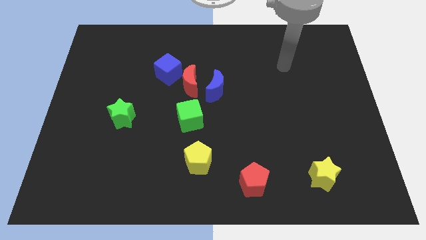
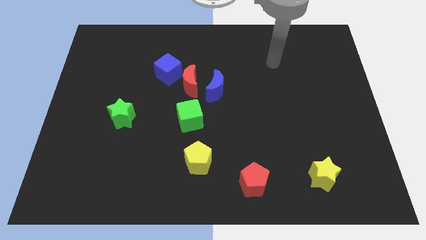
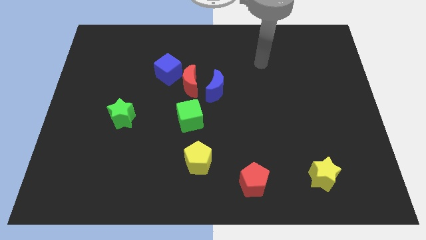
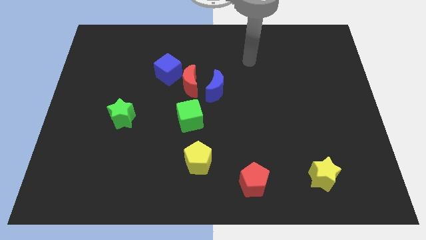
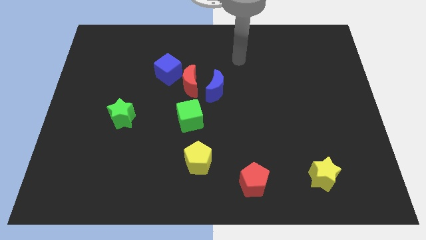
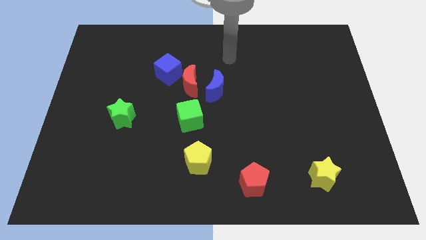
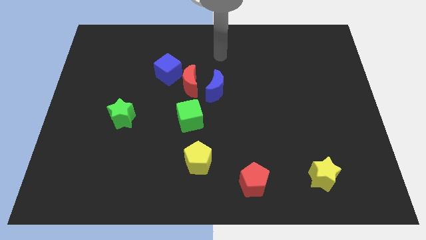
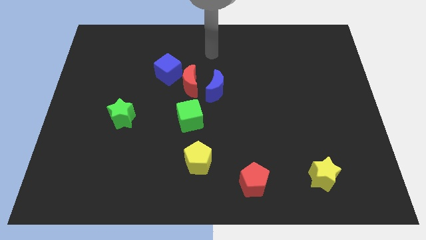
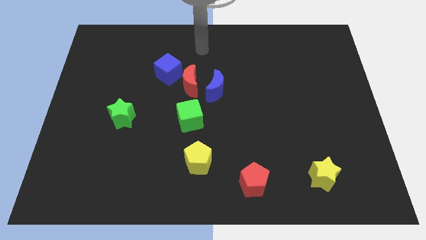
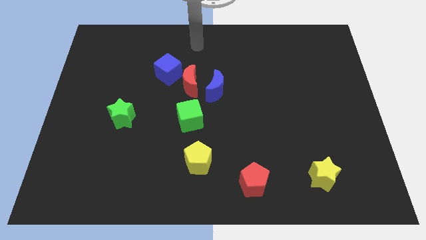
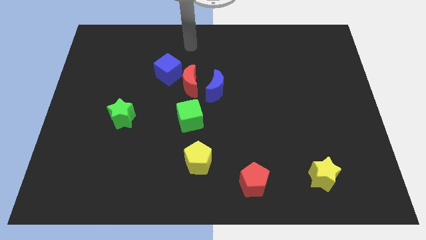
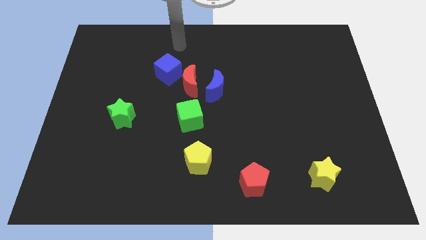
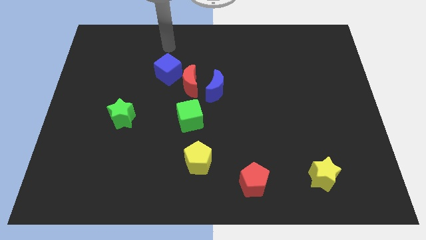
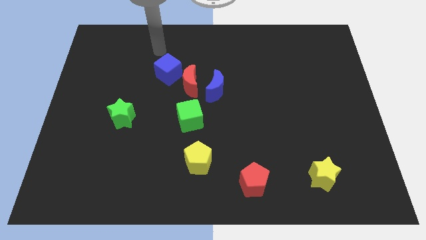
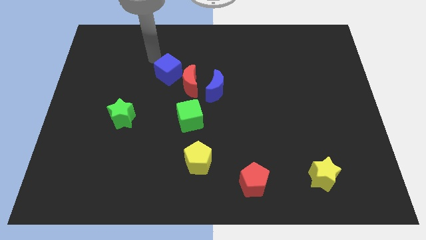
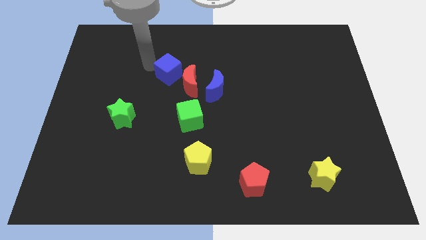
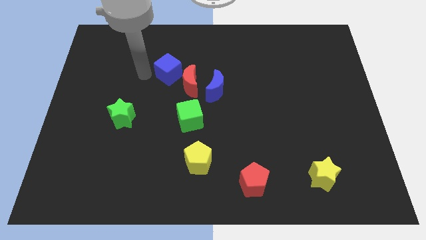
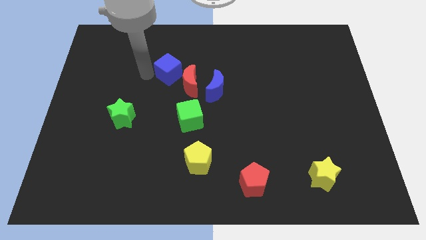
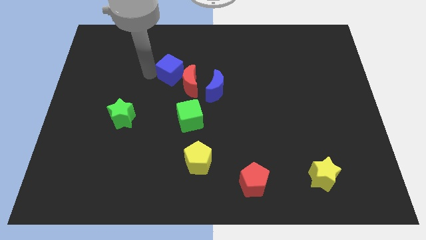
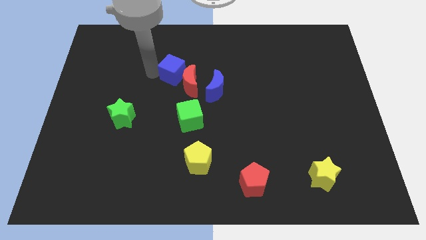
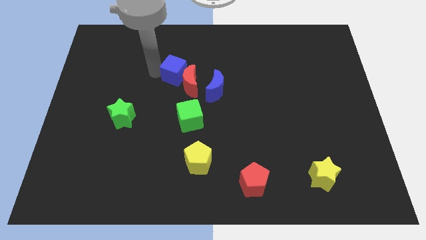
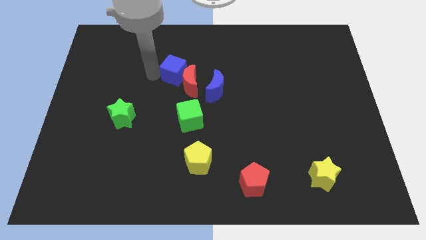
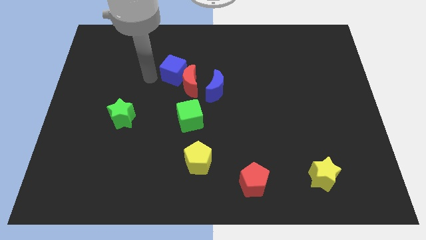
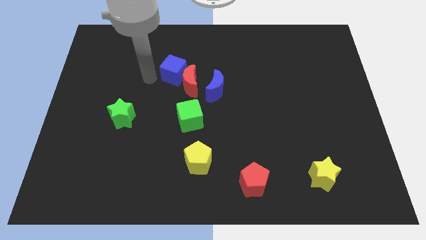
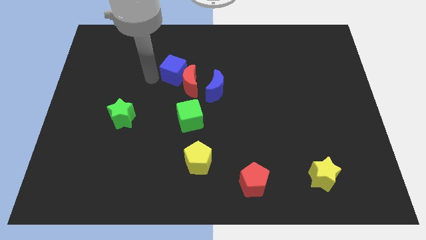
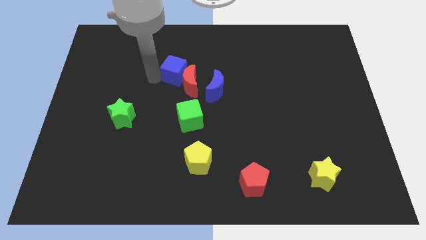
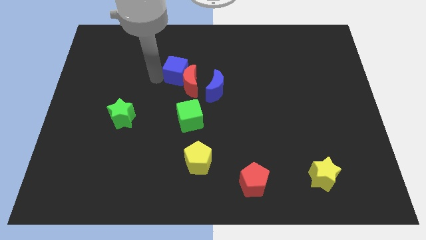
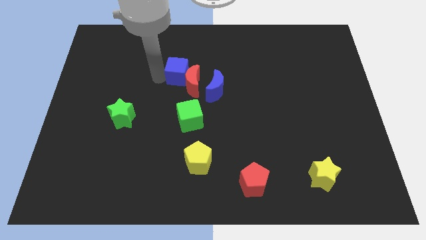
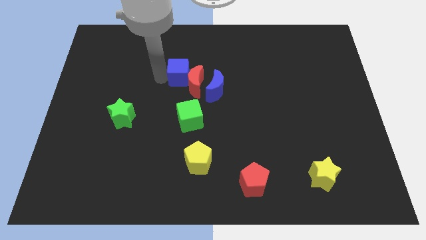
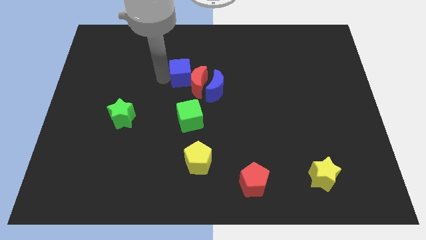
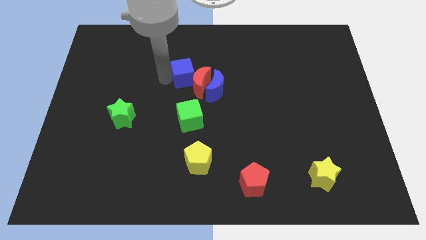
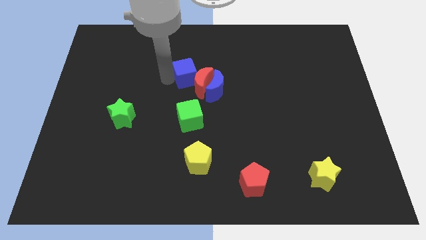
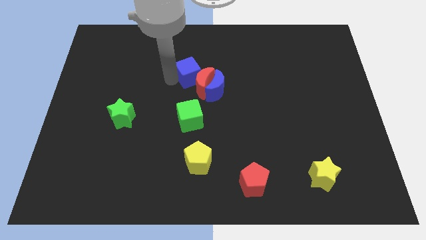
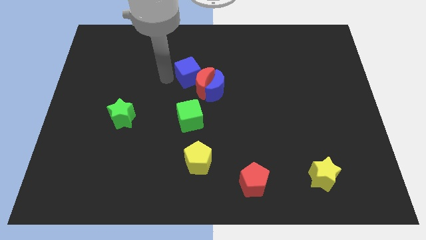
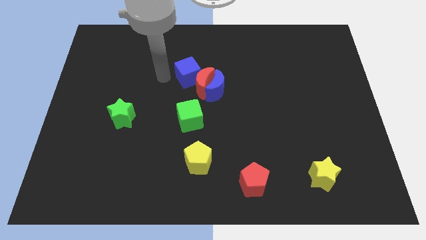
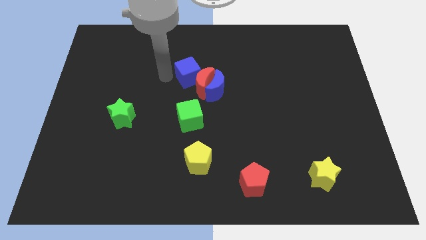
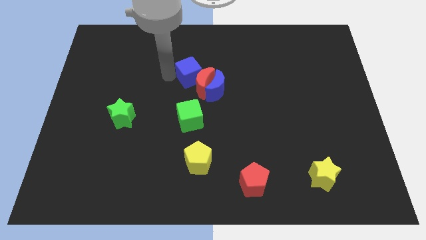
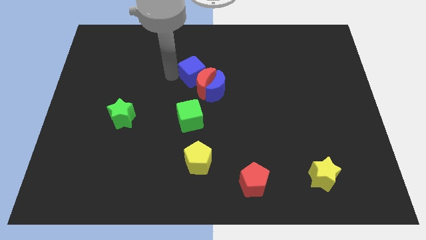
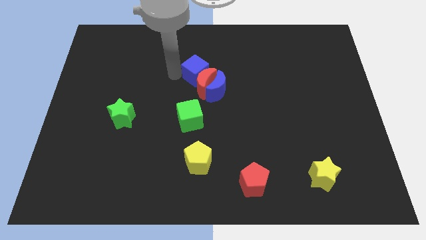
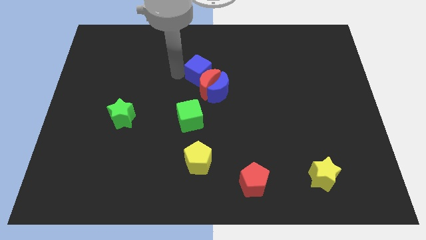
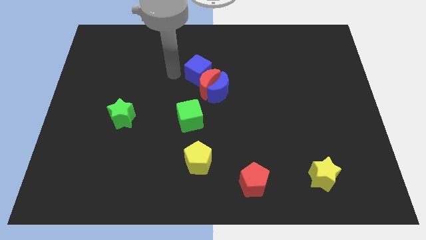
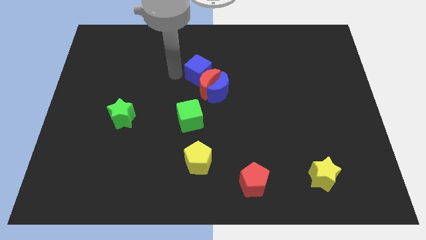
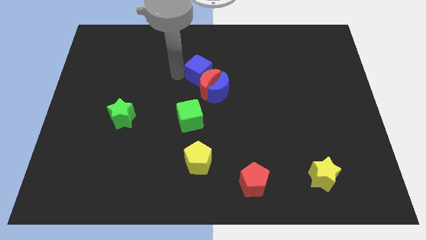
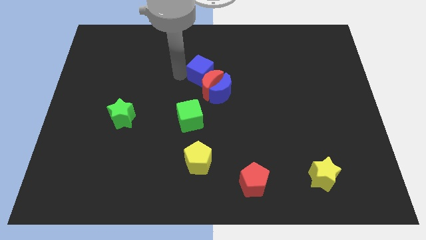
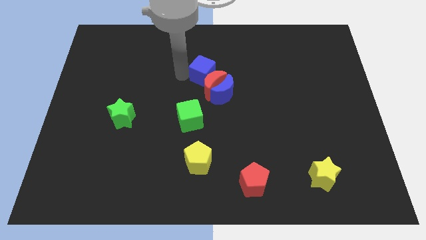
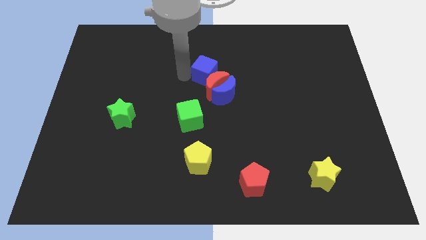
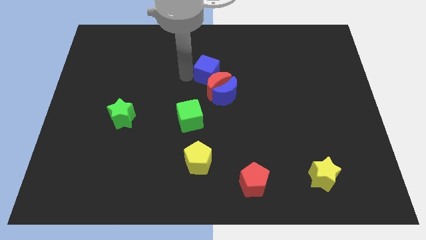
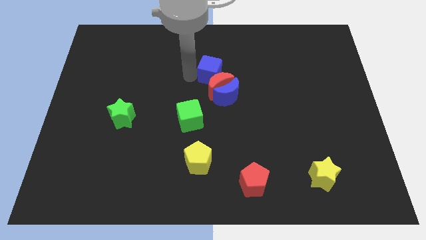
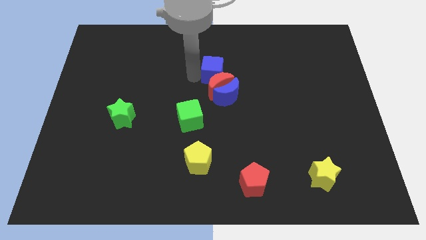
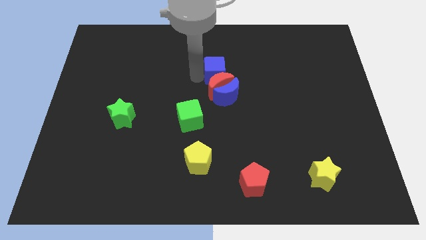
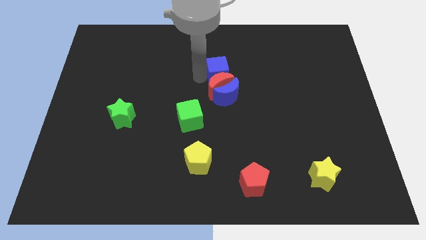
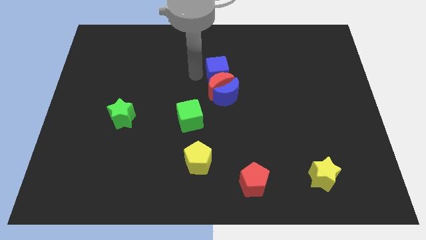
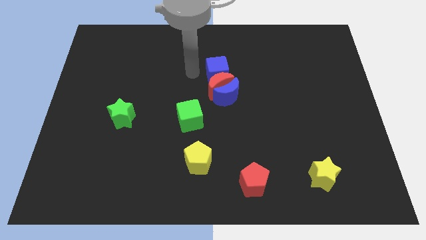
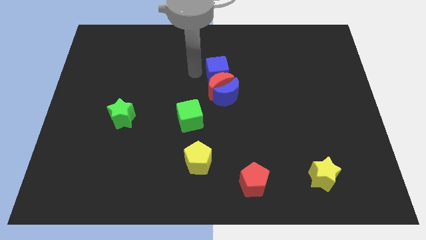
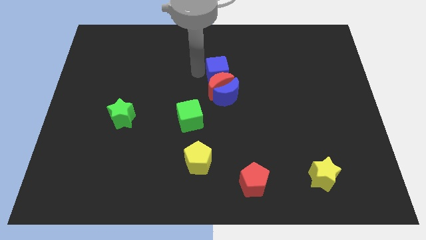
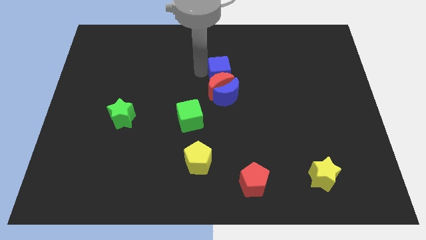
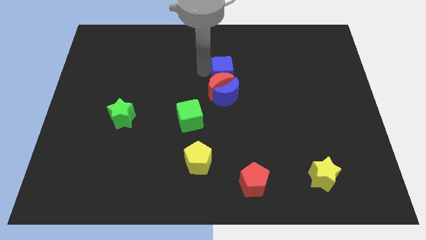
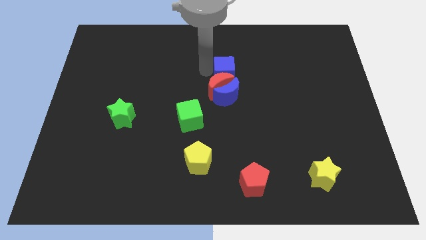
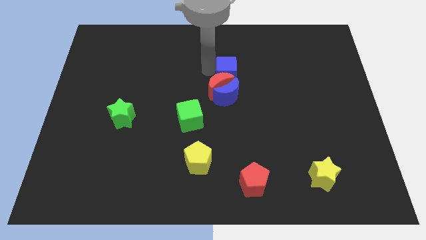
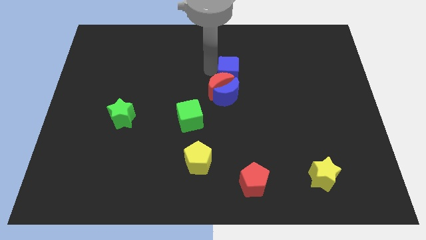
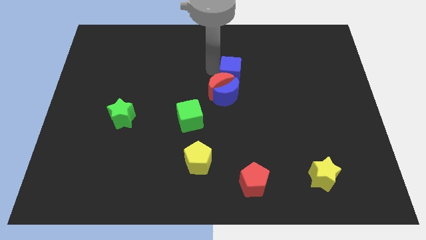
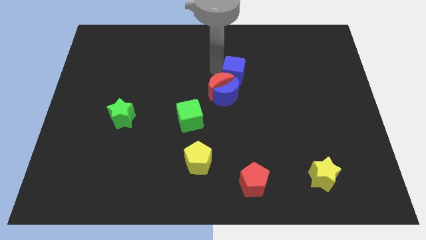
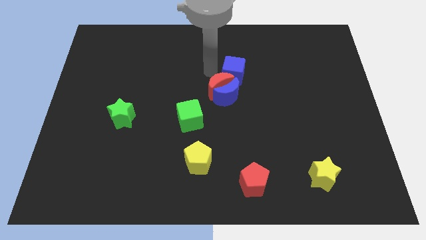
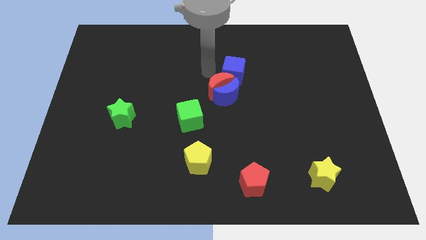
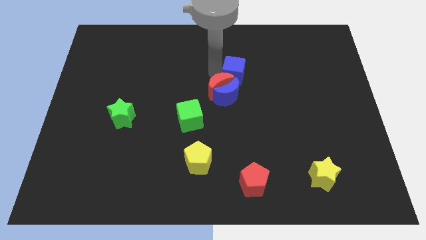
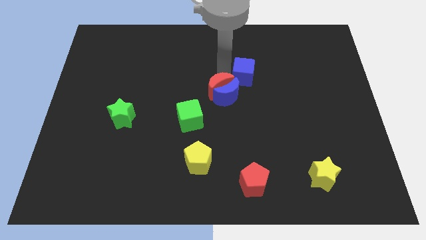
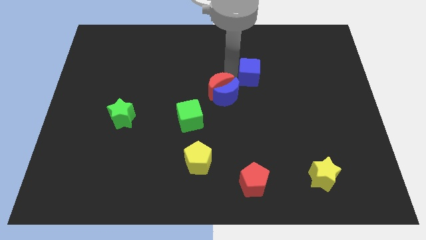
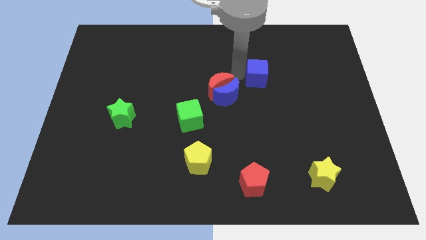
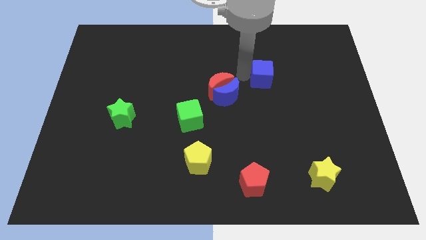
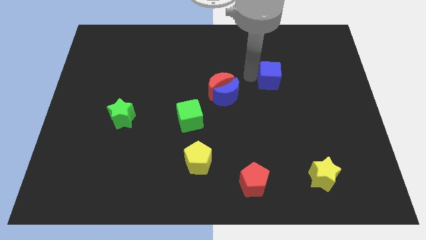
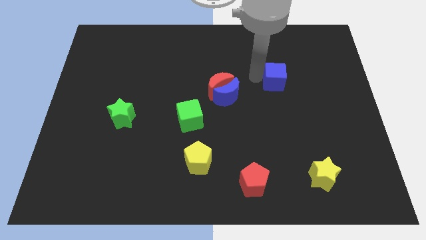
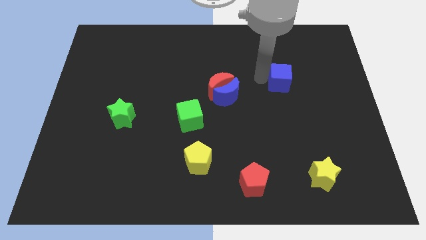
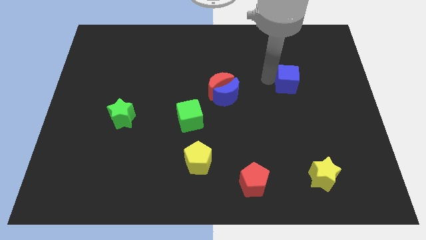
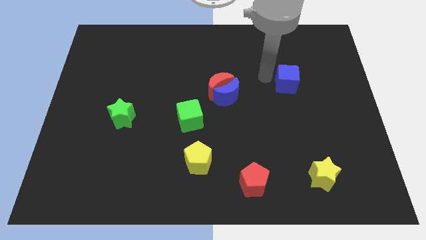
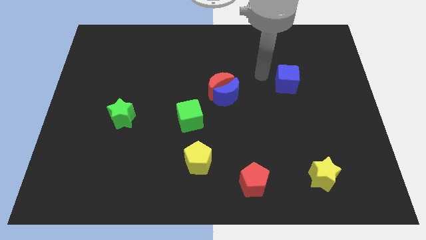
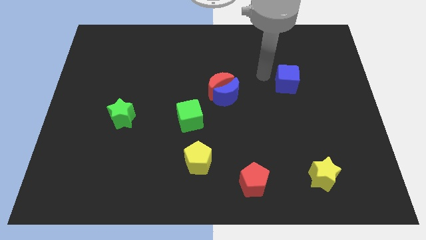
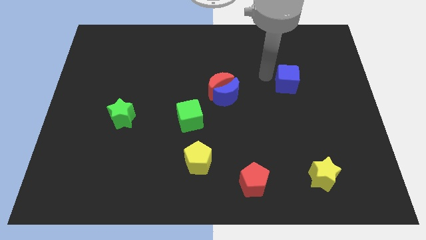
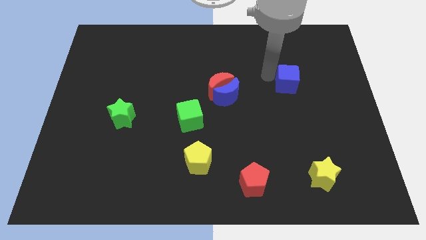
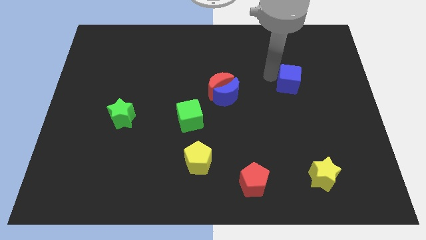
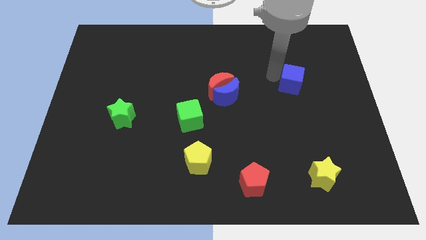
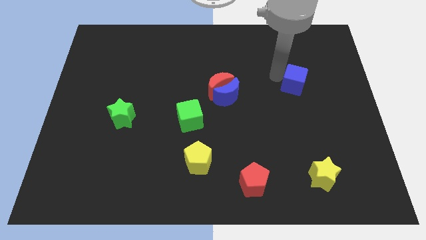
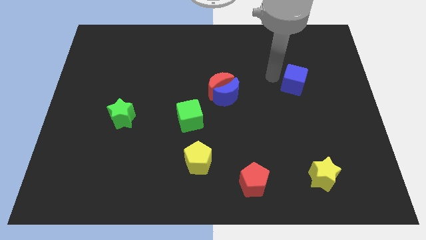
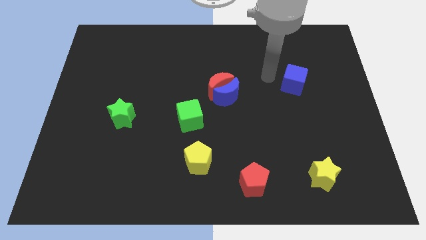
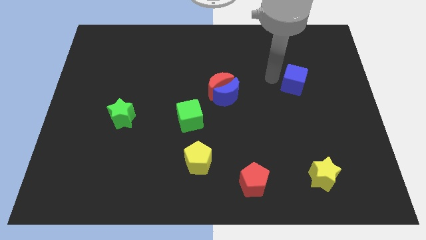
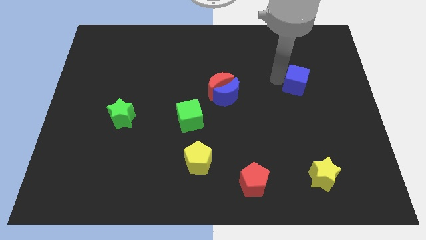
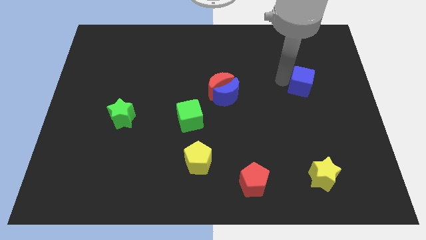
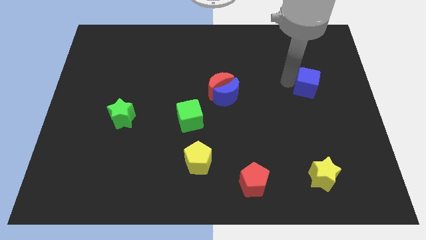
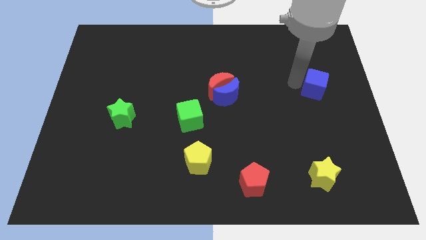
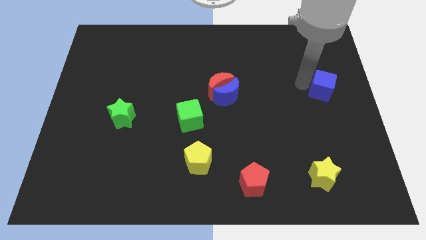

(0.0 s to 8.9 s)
put the blue cube to the right side of the board
